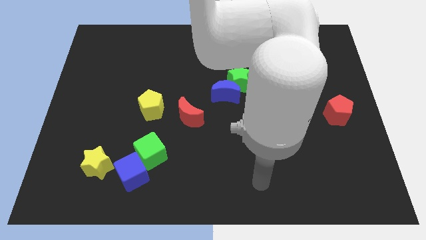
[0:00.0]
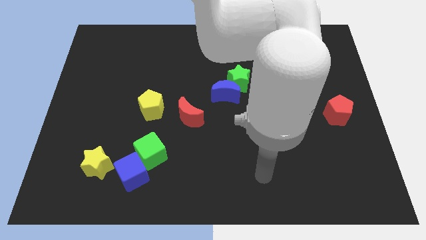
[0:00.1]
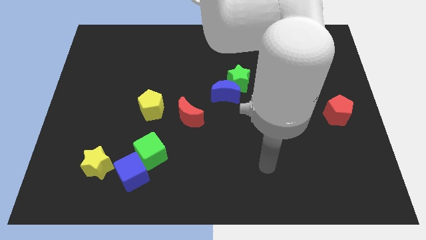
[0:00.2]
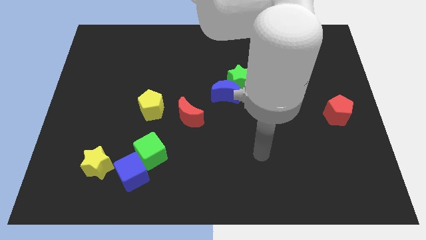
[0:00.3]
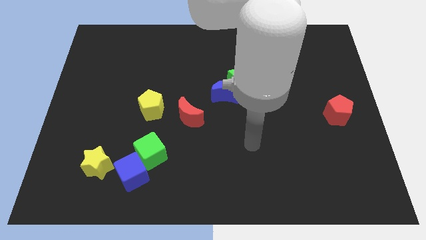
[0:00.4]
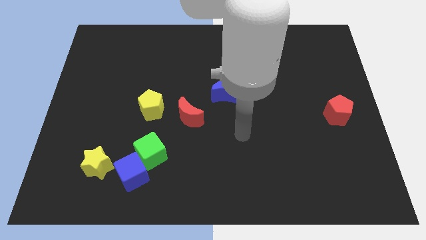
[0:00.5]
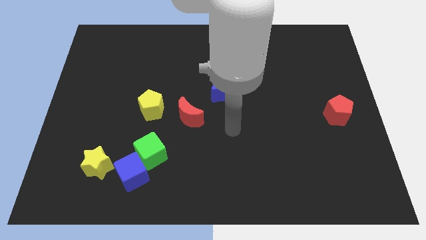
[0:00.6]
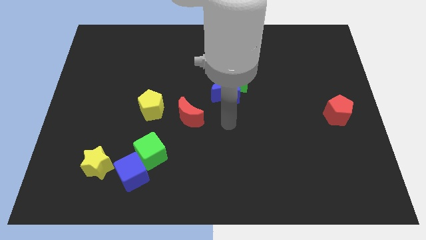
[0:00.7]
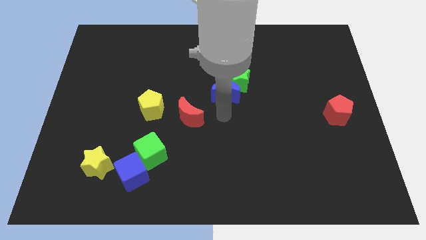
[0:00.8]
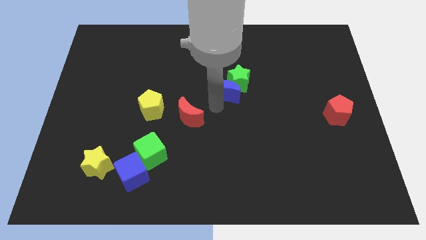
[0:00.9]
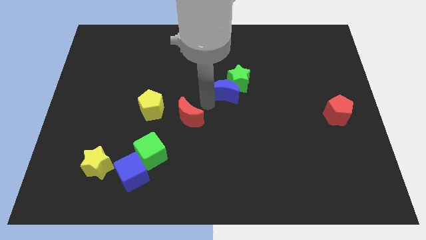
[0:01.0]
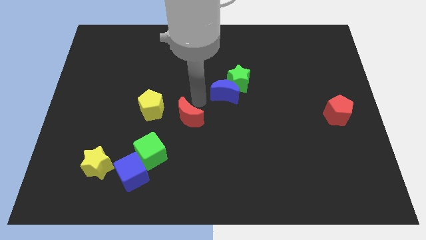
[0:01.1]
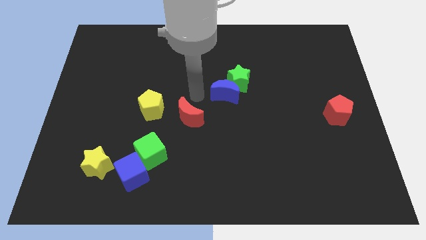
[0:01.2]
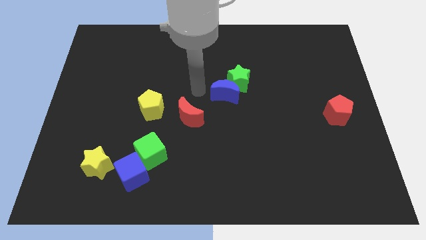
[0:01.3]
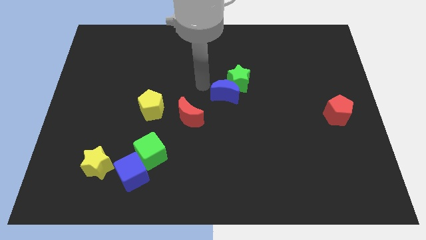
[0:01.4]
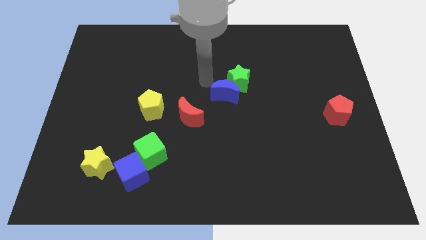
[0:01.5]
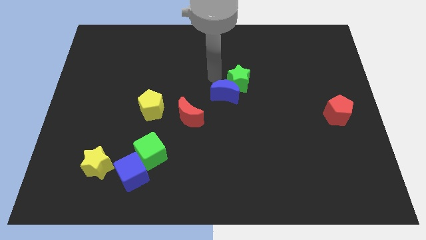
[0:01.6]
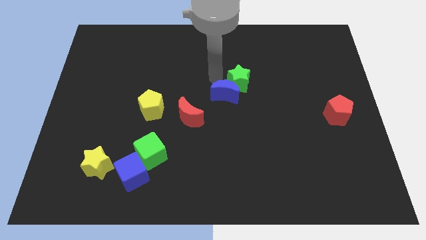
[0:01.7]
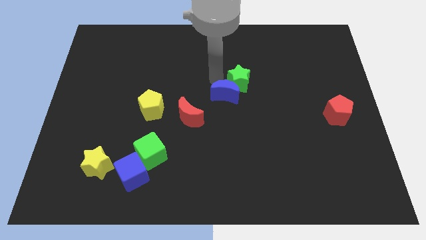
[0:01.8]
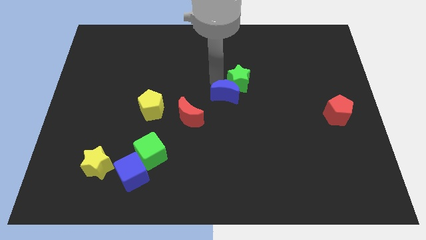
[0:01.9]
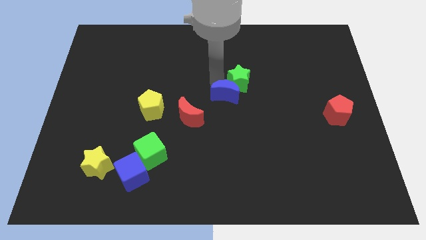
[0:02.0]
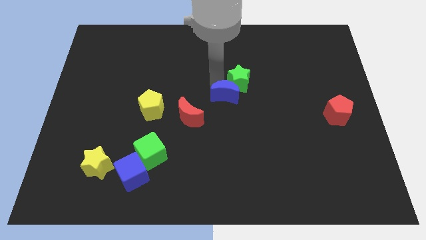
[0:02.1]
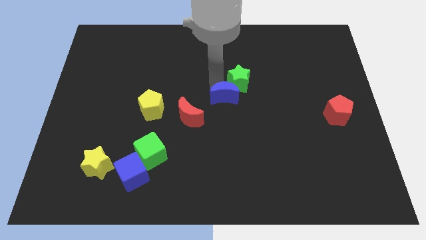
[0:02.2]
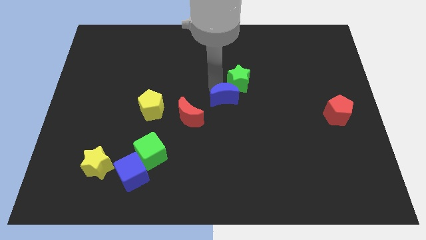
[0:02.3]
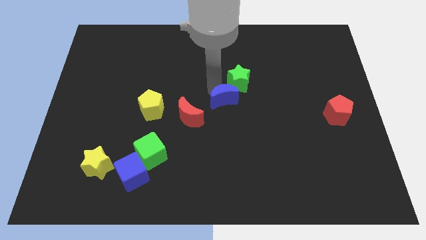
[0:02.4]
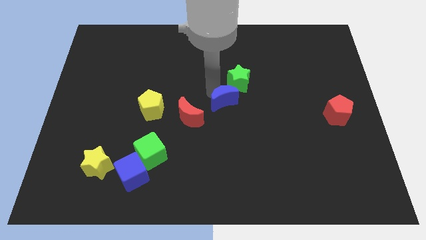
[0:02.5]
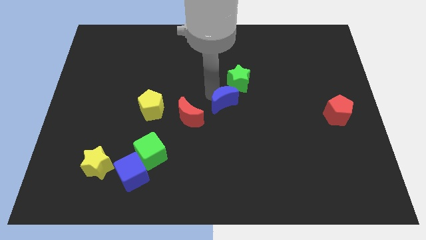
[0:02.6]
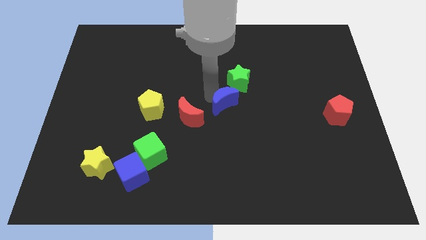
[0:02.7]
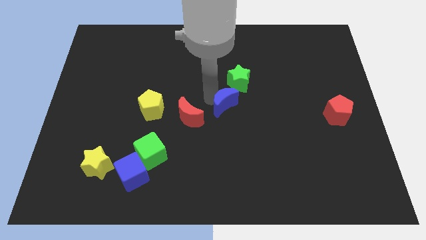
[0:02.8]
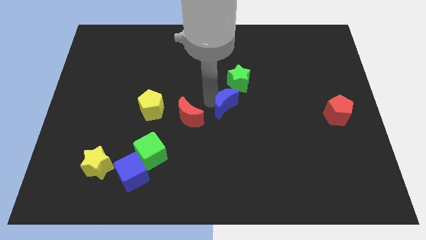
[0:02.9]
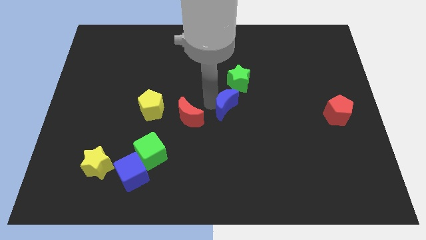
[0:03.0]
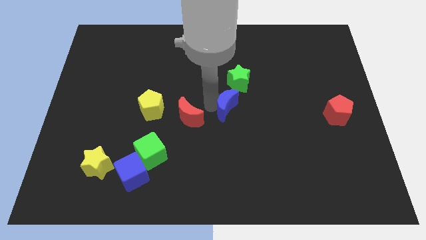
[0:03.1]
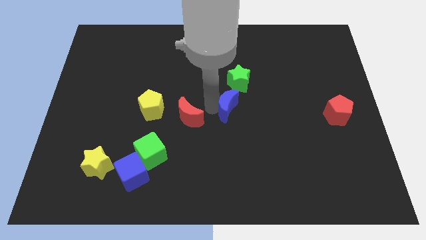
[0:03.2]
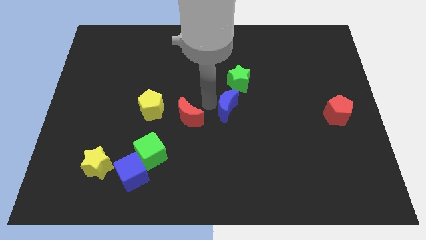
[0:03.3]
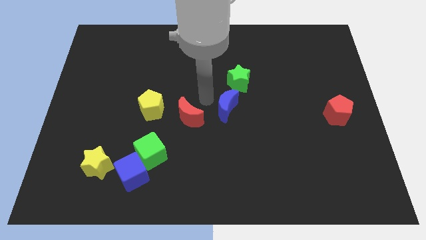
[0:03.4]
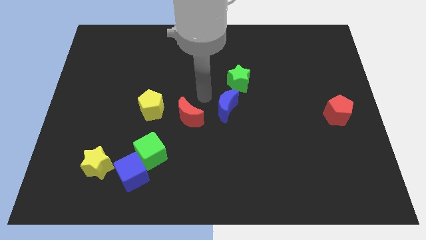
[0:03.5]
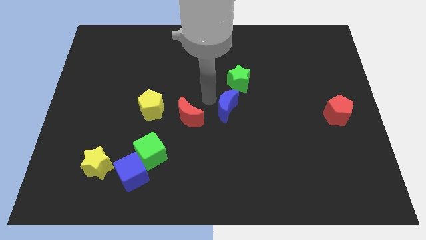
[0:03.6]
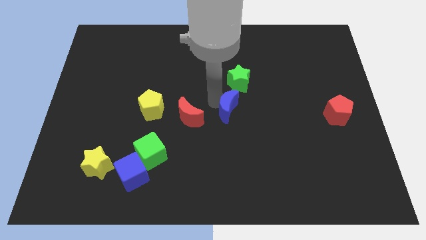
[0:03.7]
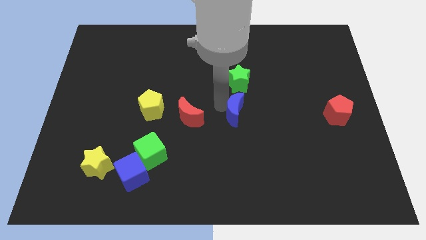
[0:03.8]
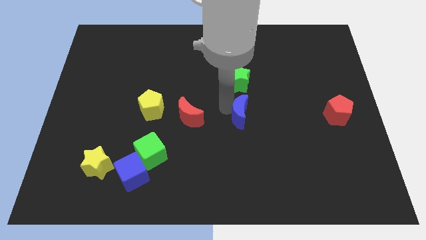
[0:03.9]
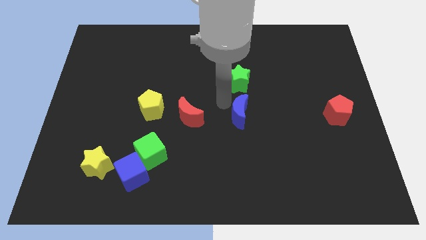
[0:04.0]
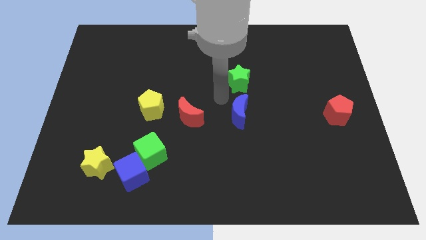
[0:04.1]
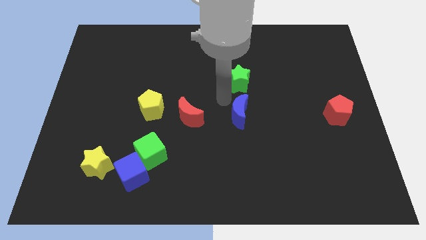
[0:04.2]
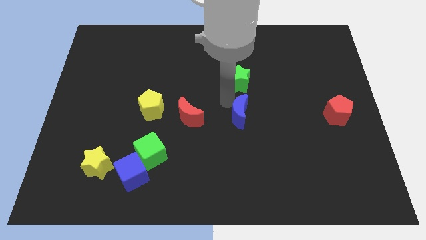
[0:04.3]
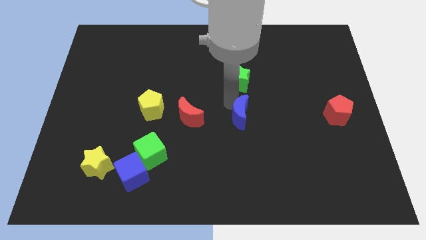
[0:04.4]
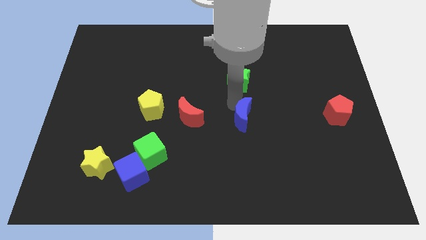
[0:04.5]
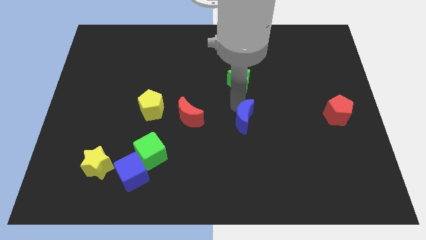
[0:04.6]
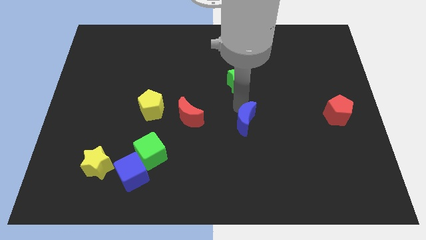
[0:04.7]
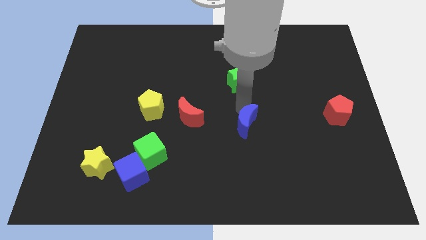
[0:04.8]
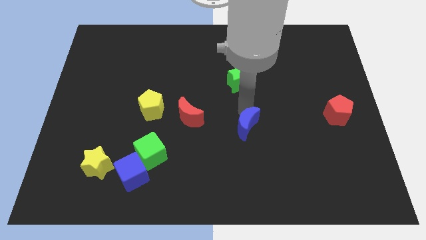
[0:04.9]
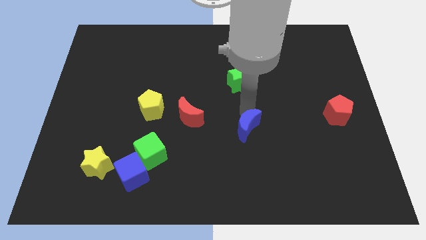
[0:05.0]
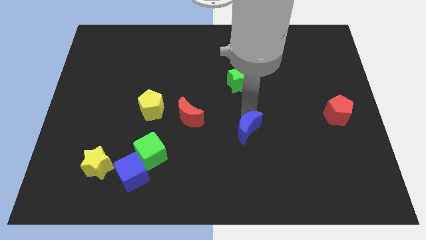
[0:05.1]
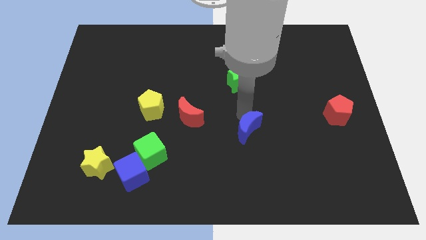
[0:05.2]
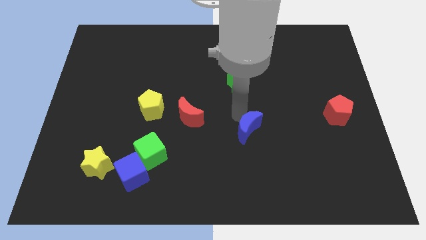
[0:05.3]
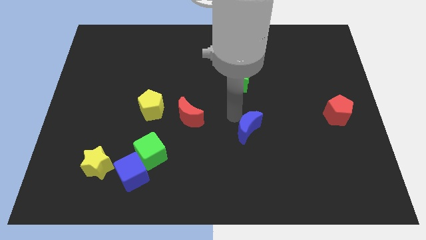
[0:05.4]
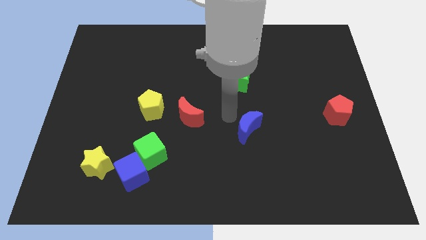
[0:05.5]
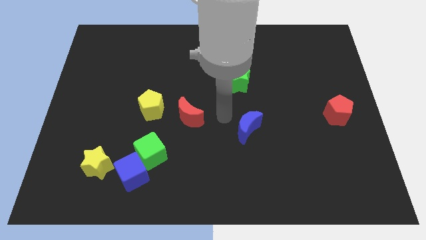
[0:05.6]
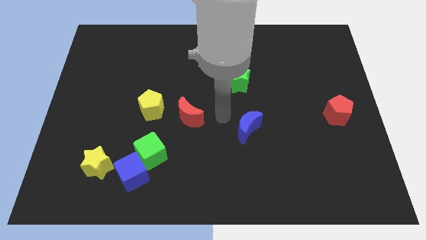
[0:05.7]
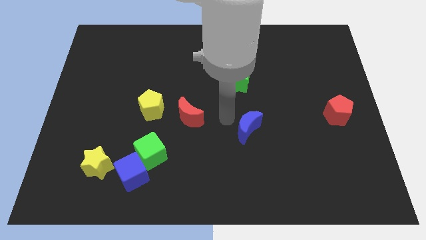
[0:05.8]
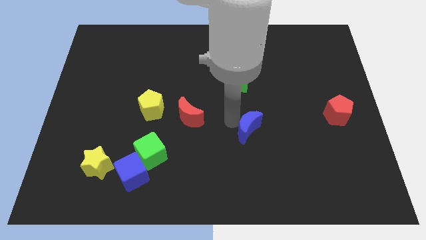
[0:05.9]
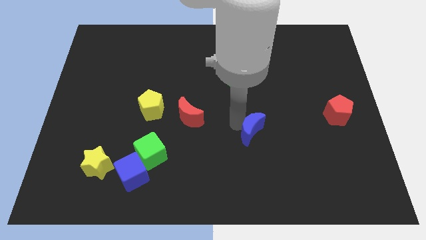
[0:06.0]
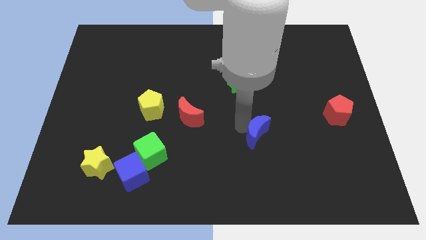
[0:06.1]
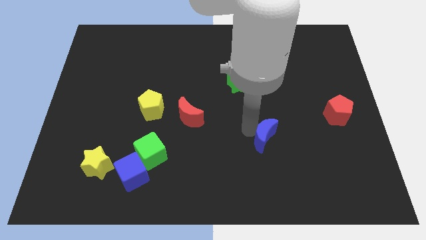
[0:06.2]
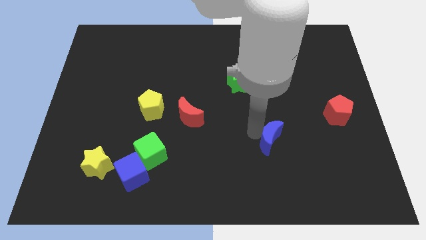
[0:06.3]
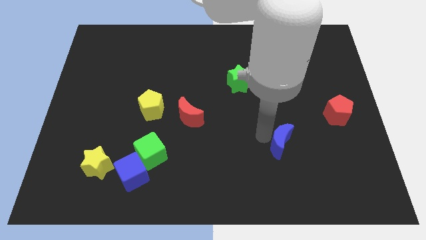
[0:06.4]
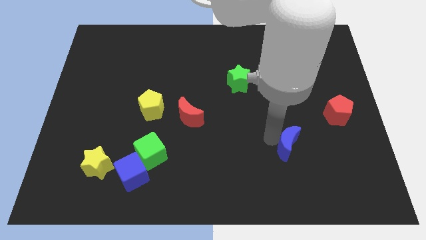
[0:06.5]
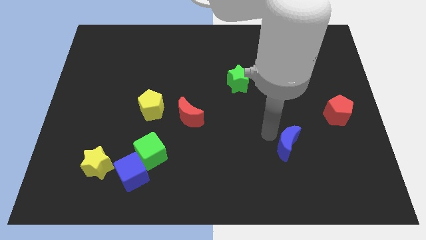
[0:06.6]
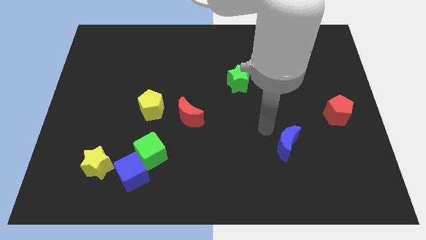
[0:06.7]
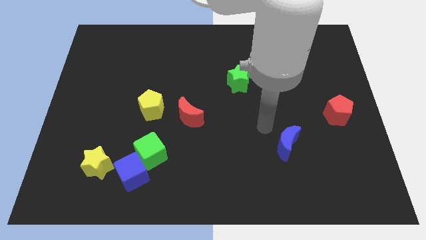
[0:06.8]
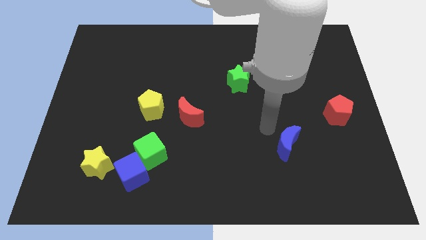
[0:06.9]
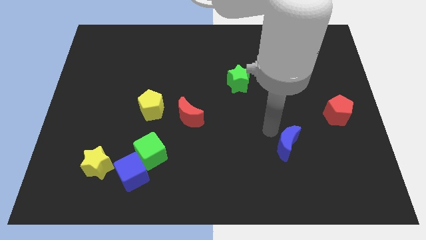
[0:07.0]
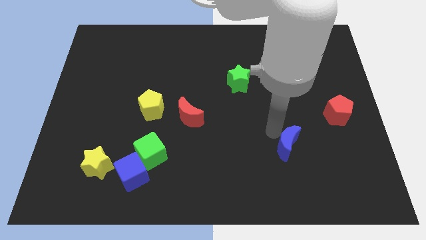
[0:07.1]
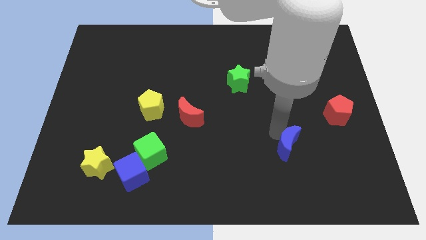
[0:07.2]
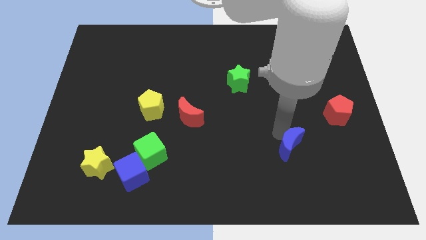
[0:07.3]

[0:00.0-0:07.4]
push the blue moon downwards and to the right

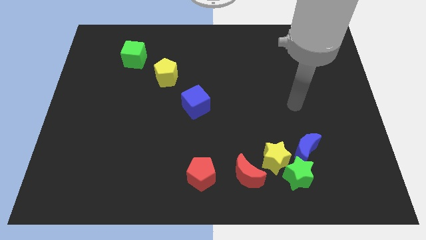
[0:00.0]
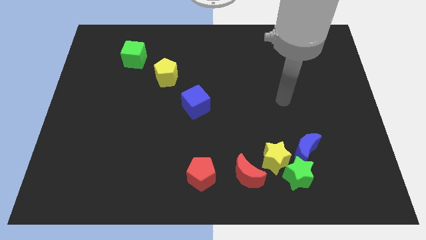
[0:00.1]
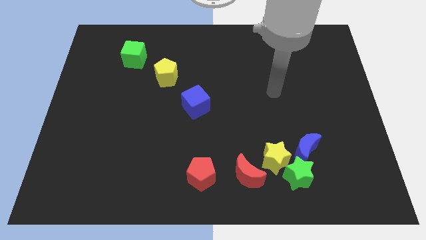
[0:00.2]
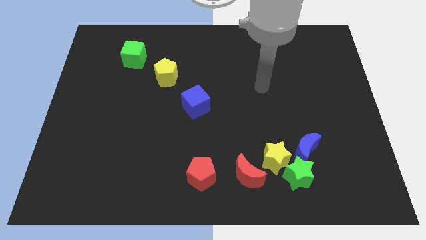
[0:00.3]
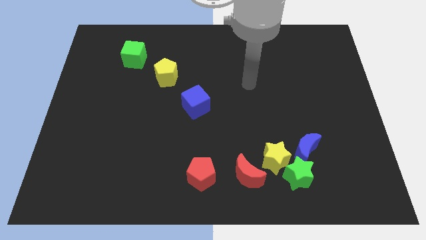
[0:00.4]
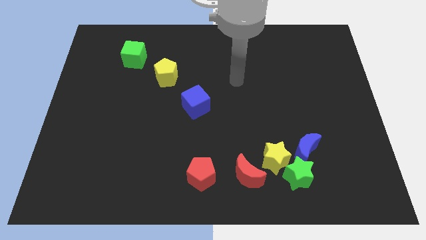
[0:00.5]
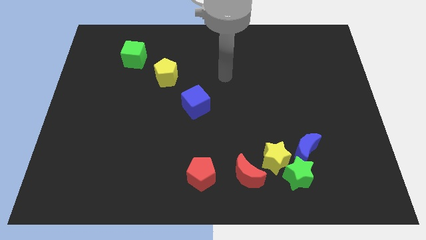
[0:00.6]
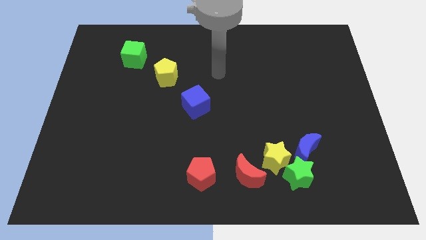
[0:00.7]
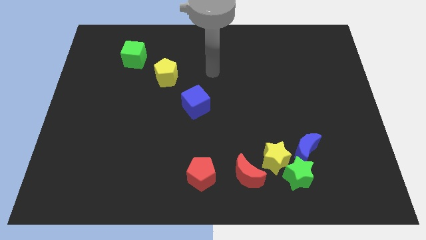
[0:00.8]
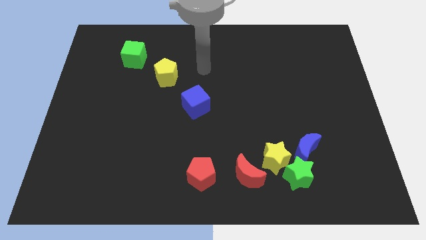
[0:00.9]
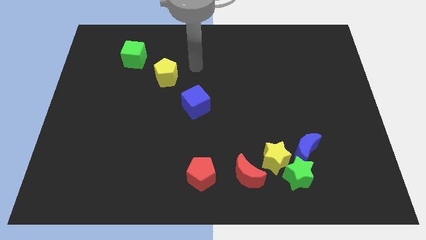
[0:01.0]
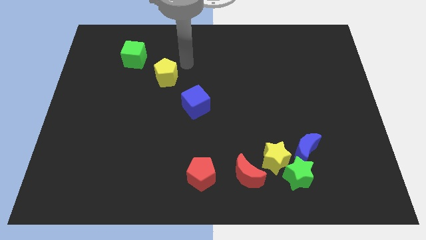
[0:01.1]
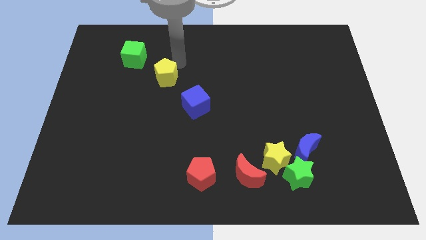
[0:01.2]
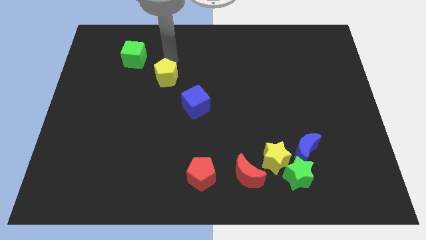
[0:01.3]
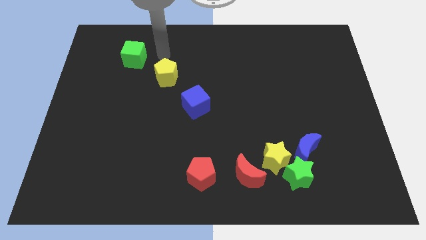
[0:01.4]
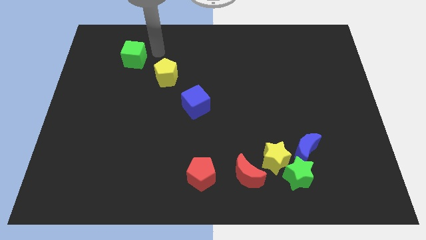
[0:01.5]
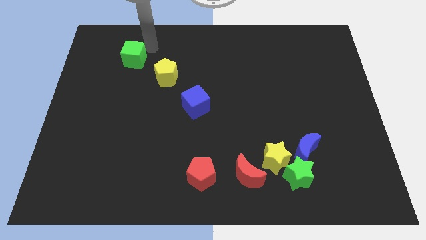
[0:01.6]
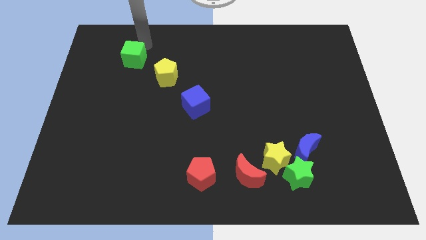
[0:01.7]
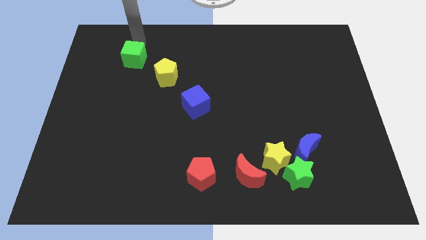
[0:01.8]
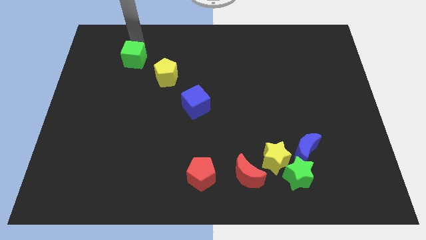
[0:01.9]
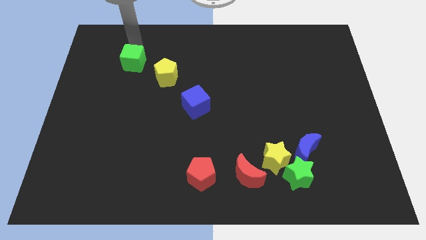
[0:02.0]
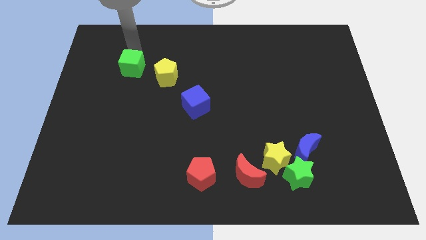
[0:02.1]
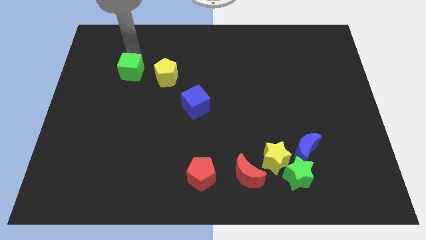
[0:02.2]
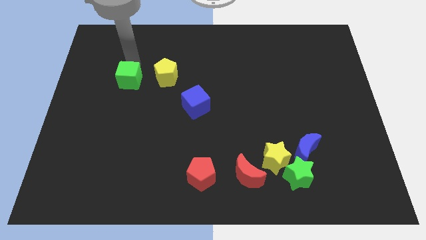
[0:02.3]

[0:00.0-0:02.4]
push the green cube a little bit downwards
